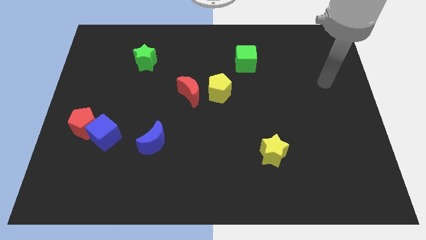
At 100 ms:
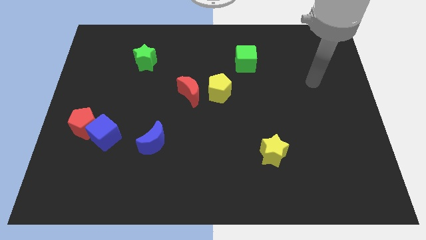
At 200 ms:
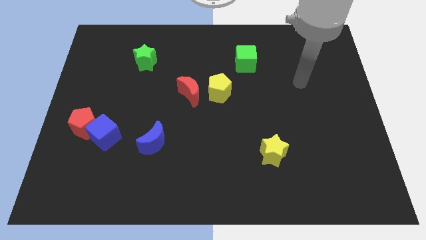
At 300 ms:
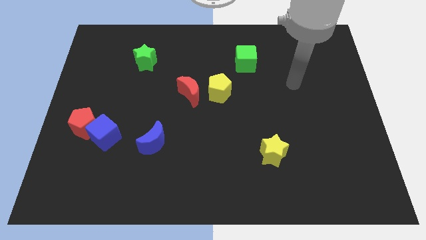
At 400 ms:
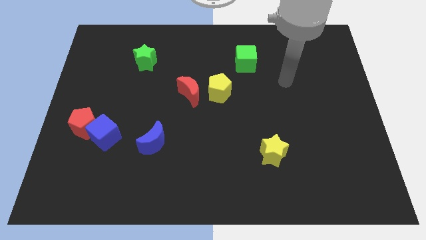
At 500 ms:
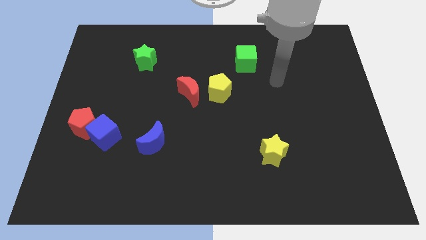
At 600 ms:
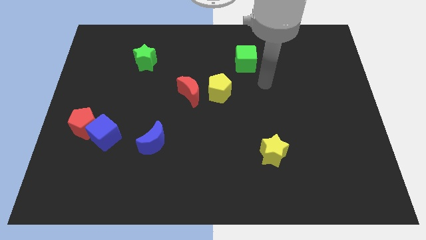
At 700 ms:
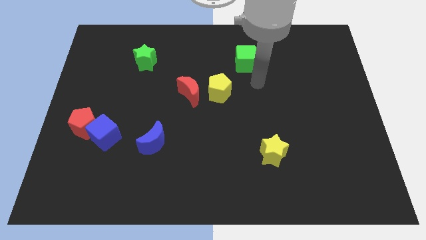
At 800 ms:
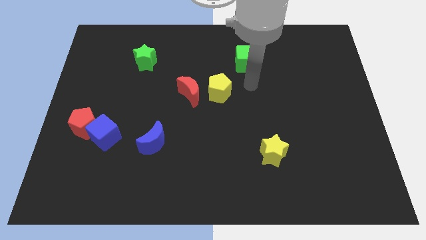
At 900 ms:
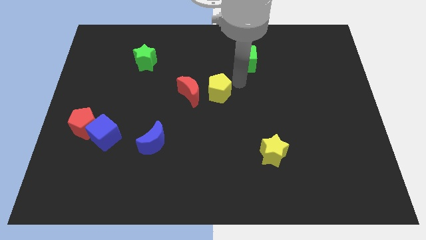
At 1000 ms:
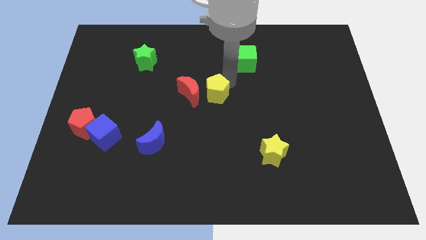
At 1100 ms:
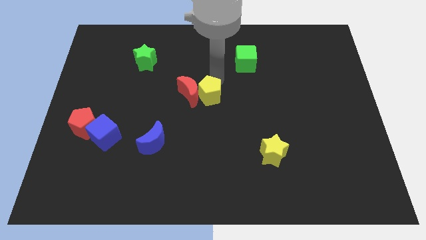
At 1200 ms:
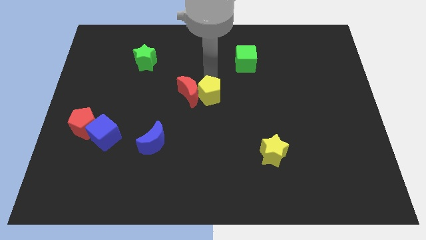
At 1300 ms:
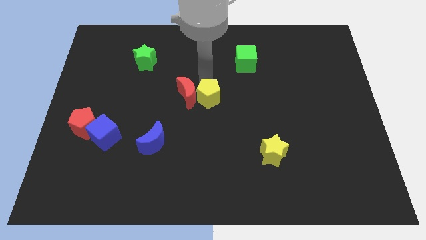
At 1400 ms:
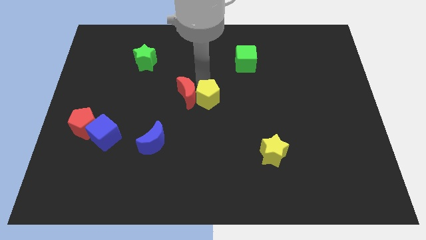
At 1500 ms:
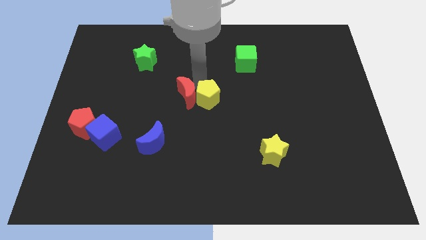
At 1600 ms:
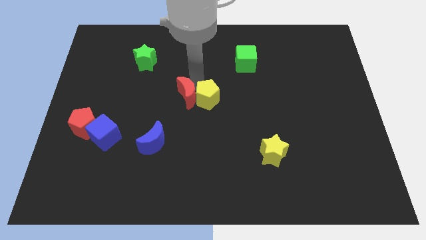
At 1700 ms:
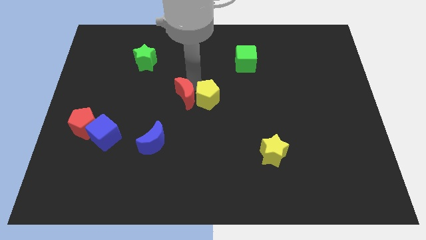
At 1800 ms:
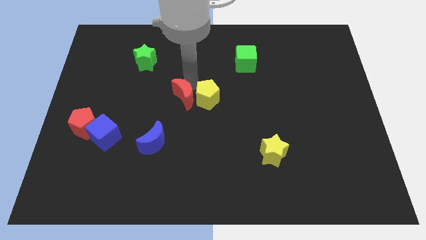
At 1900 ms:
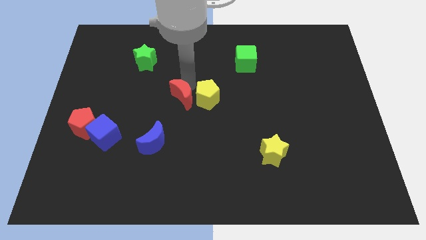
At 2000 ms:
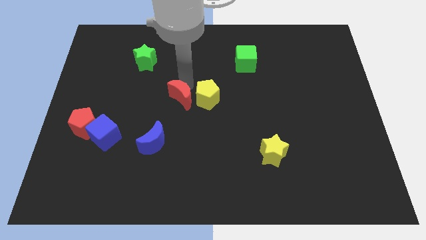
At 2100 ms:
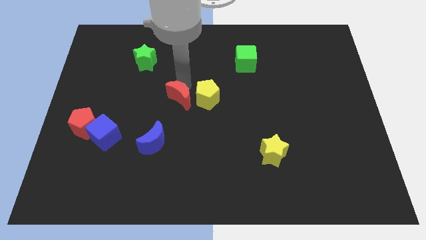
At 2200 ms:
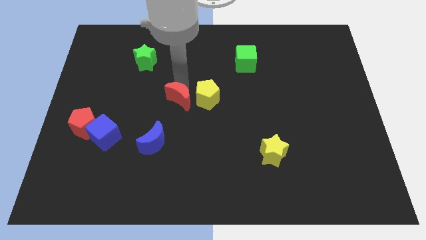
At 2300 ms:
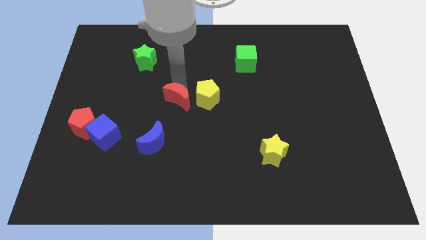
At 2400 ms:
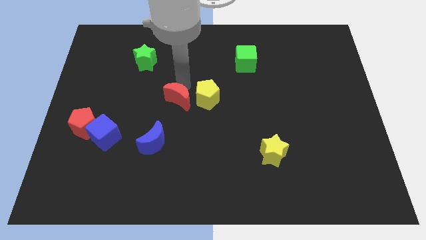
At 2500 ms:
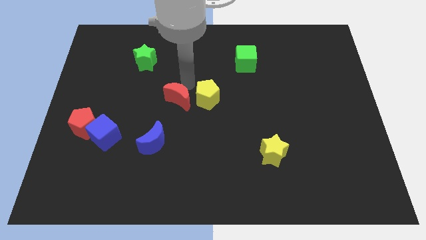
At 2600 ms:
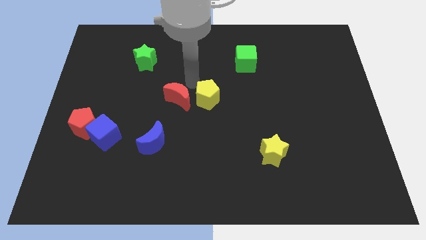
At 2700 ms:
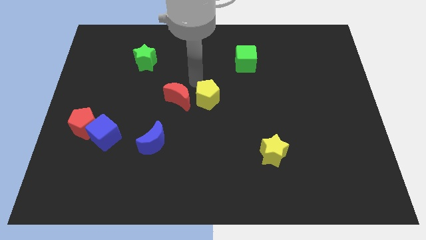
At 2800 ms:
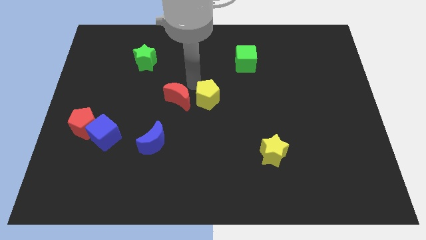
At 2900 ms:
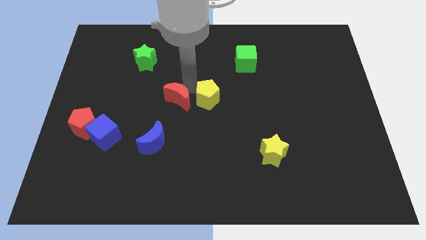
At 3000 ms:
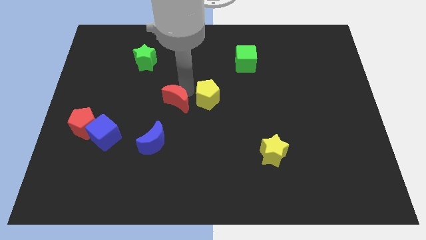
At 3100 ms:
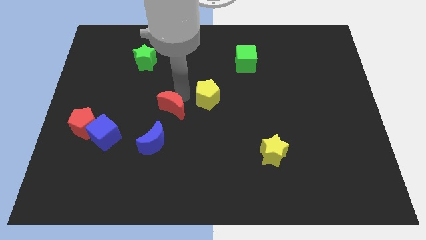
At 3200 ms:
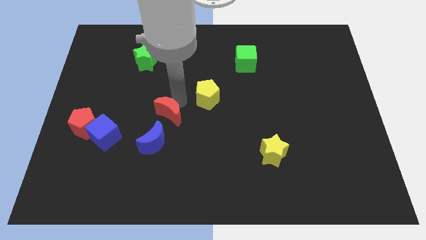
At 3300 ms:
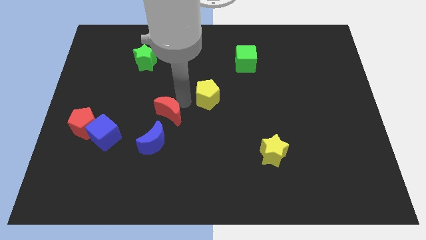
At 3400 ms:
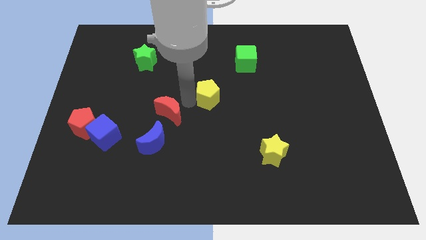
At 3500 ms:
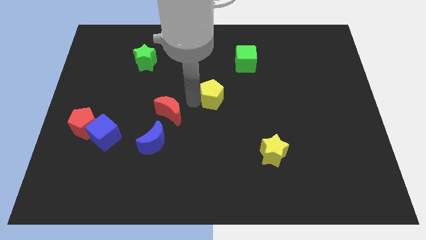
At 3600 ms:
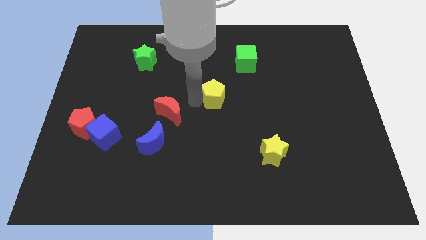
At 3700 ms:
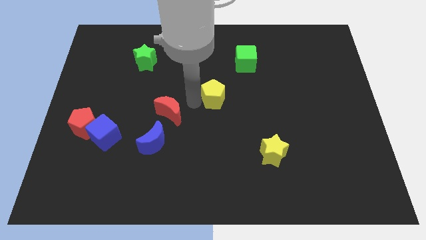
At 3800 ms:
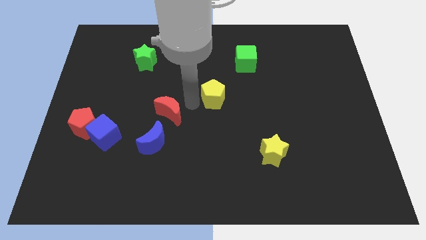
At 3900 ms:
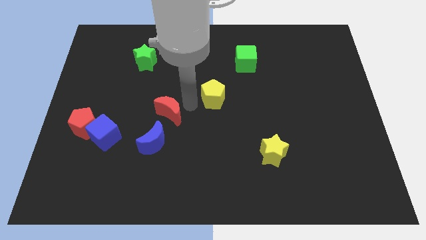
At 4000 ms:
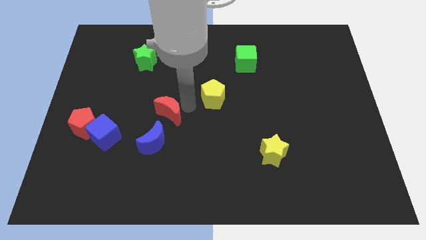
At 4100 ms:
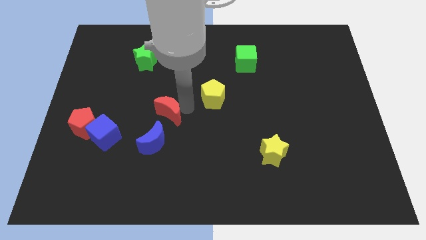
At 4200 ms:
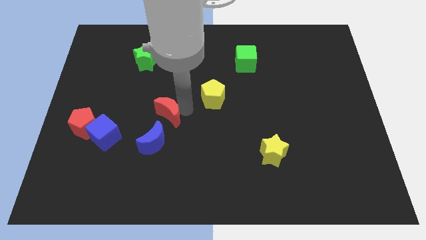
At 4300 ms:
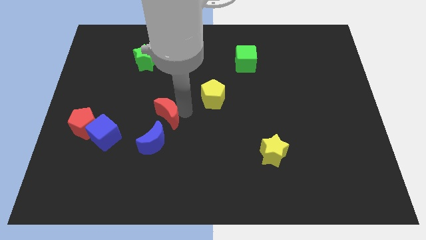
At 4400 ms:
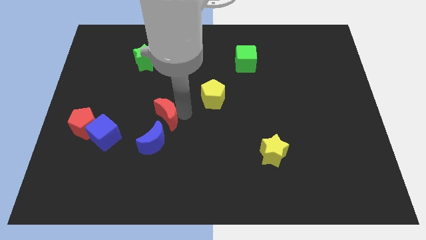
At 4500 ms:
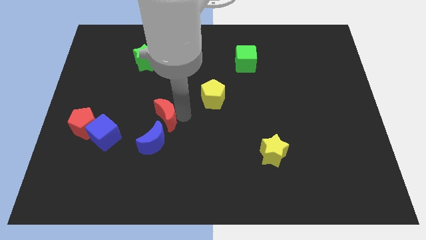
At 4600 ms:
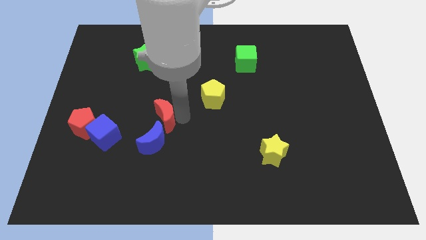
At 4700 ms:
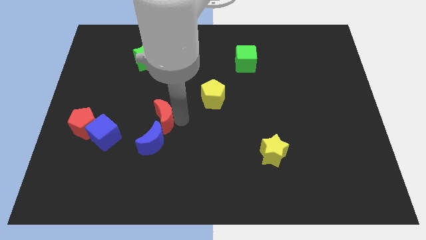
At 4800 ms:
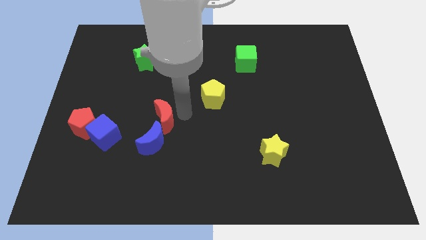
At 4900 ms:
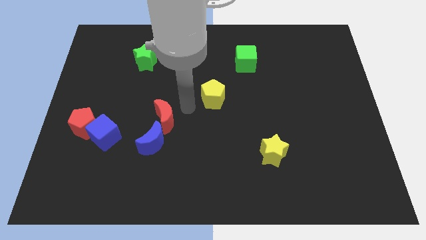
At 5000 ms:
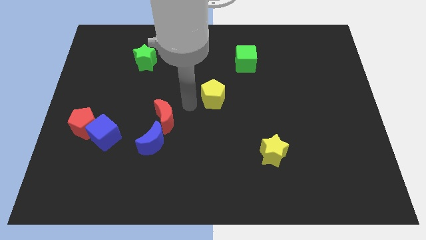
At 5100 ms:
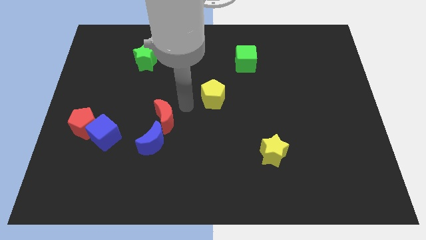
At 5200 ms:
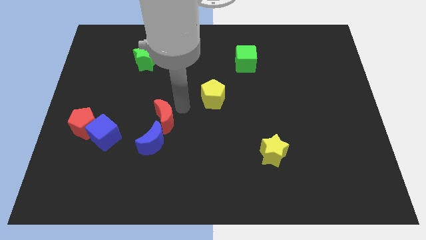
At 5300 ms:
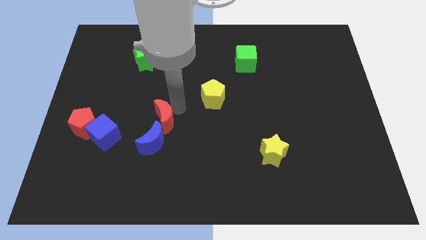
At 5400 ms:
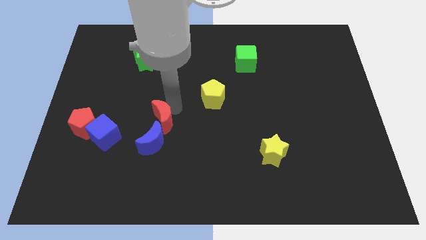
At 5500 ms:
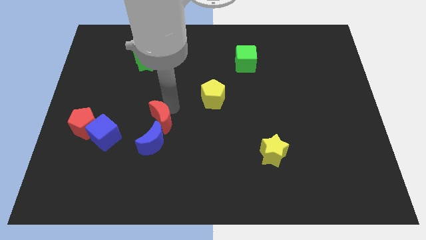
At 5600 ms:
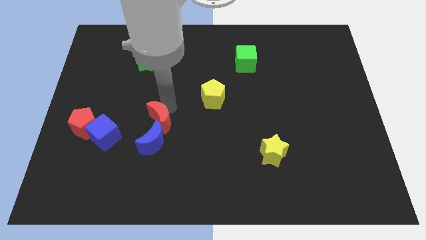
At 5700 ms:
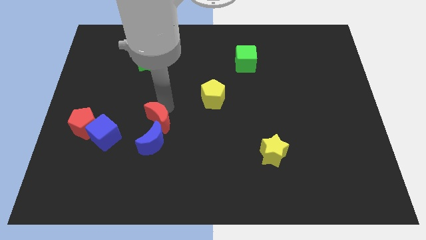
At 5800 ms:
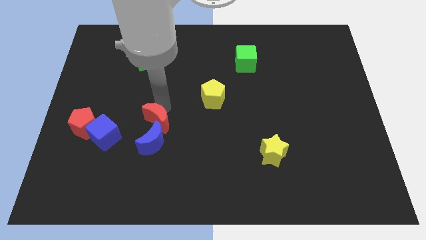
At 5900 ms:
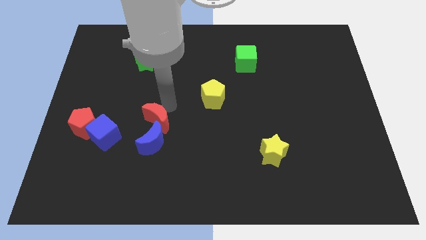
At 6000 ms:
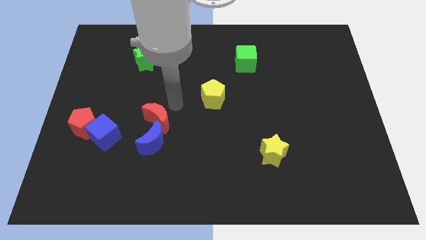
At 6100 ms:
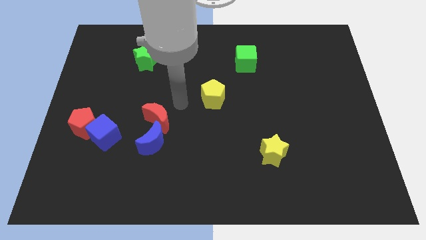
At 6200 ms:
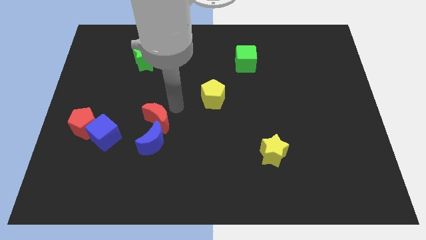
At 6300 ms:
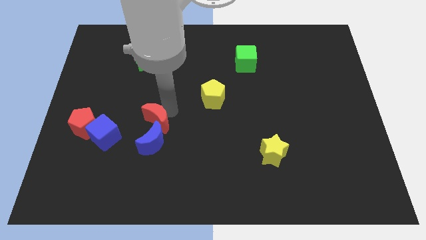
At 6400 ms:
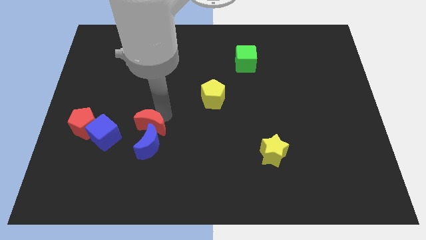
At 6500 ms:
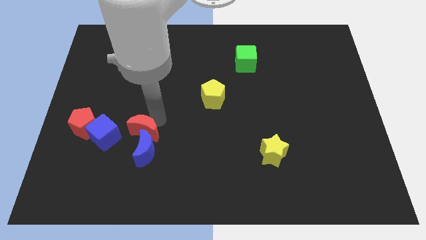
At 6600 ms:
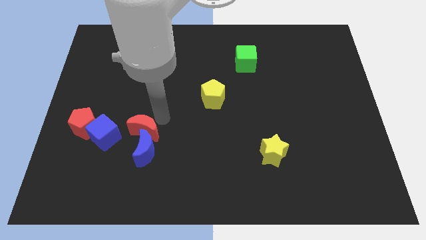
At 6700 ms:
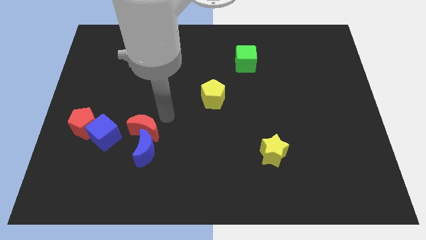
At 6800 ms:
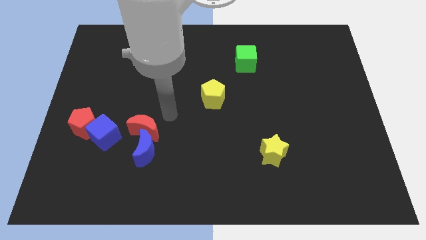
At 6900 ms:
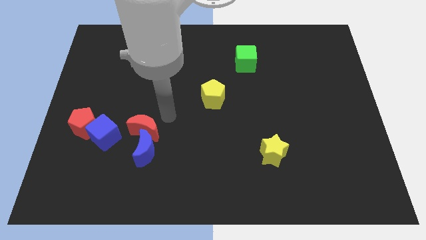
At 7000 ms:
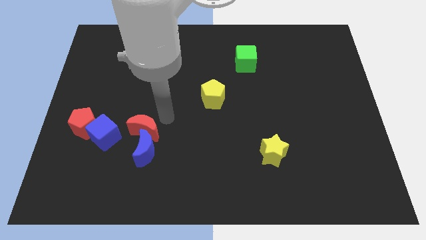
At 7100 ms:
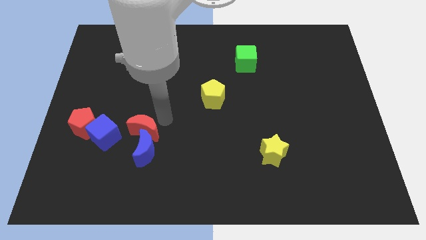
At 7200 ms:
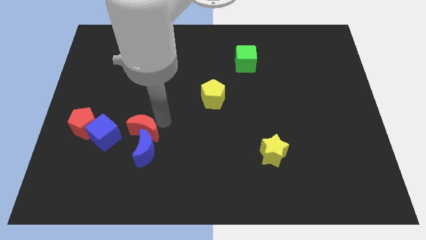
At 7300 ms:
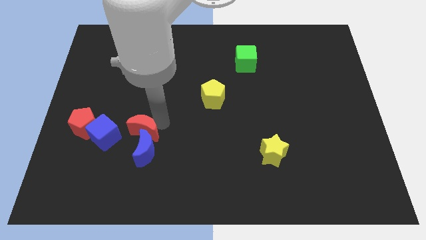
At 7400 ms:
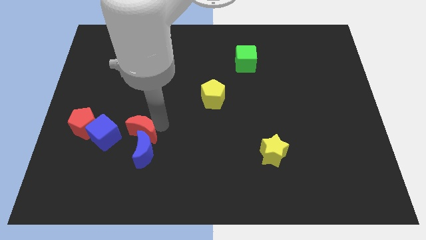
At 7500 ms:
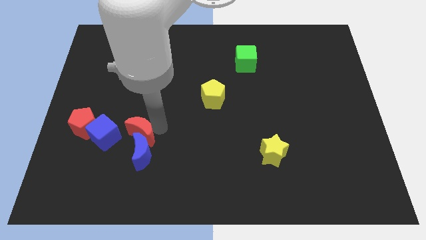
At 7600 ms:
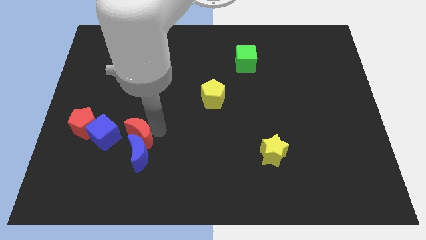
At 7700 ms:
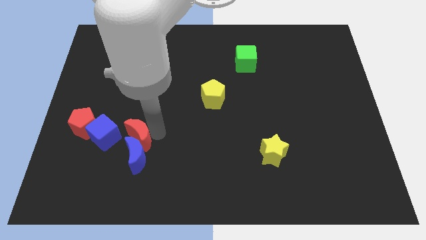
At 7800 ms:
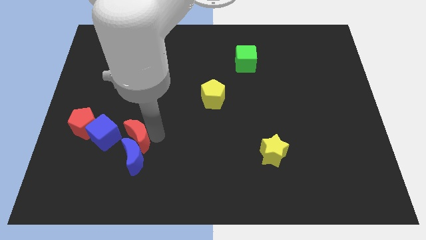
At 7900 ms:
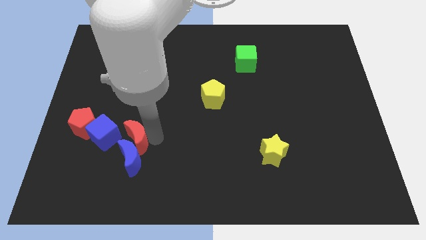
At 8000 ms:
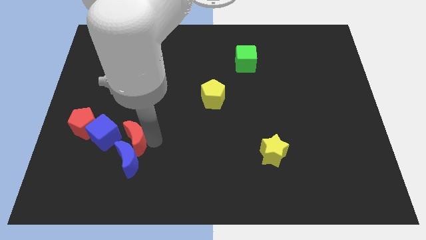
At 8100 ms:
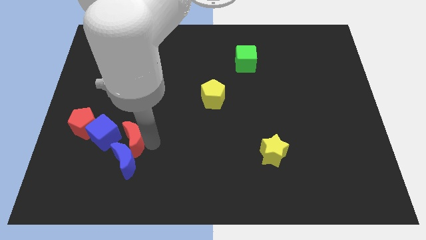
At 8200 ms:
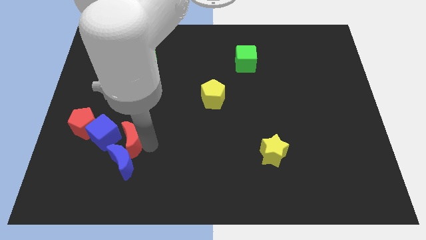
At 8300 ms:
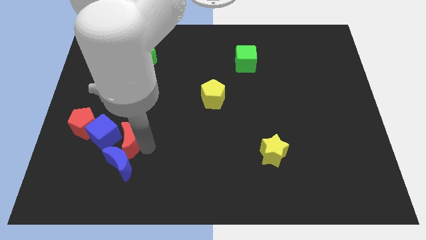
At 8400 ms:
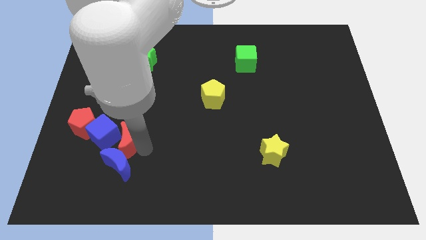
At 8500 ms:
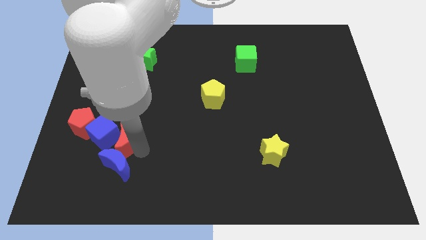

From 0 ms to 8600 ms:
move the red moon diagonally down and to the right of the red pentagon
